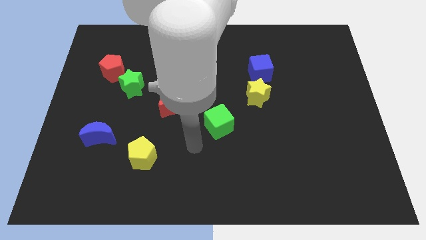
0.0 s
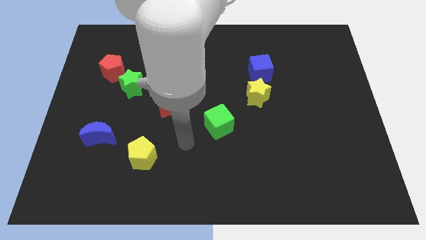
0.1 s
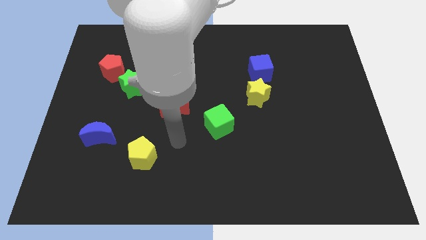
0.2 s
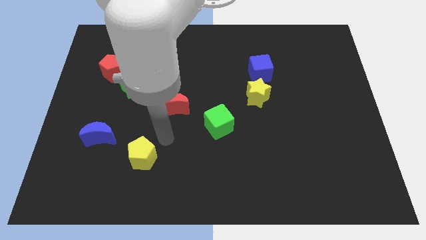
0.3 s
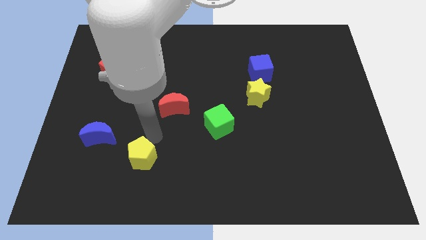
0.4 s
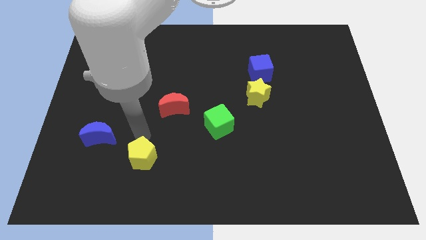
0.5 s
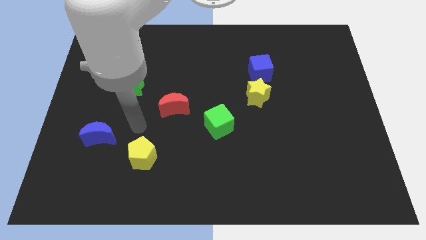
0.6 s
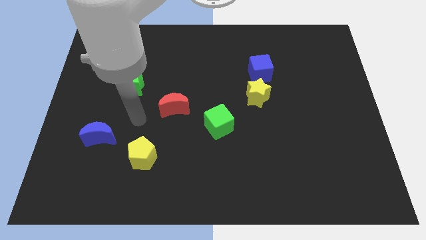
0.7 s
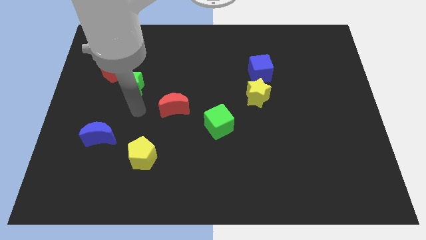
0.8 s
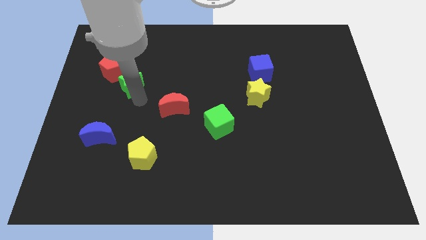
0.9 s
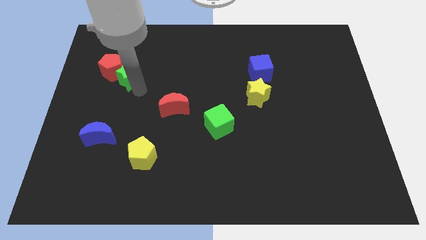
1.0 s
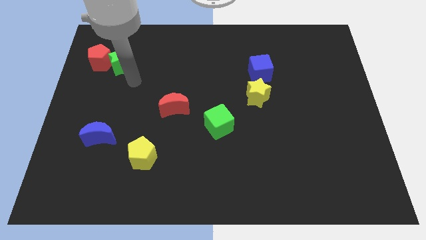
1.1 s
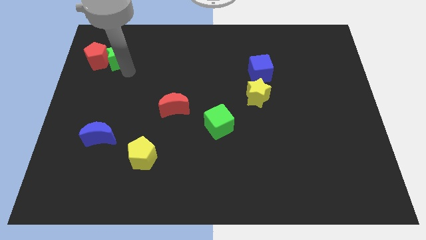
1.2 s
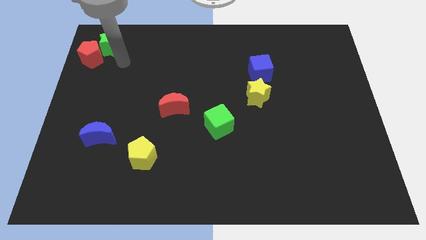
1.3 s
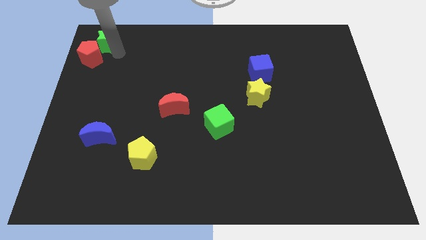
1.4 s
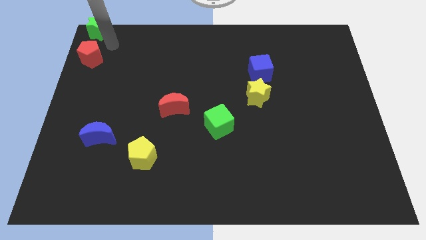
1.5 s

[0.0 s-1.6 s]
pull the red pentagon apart from the green star

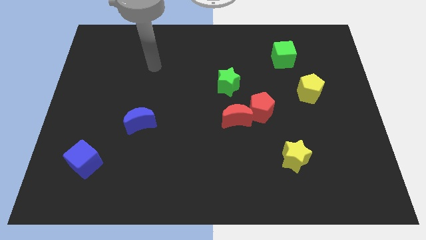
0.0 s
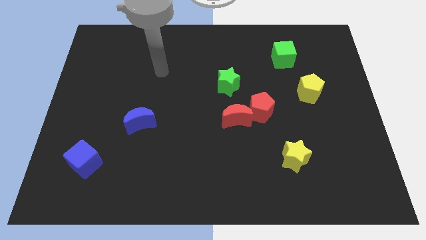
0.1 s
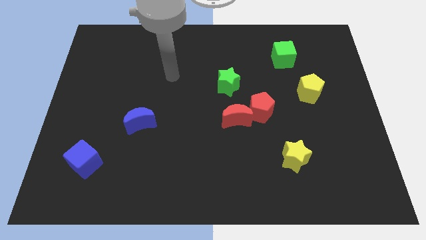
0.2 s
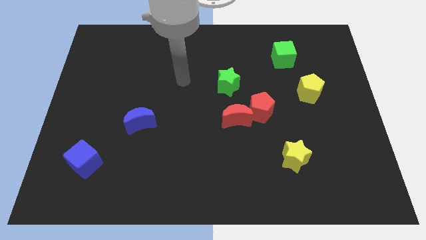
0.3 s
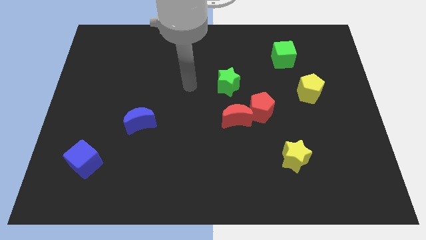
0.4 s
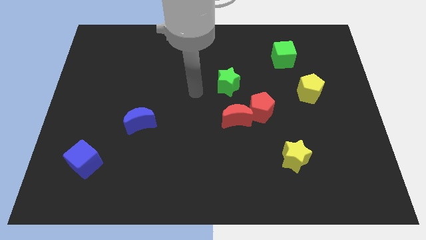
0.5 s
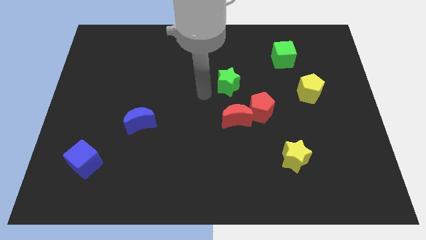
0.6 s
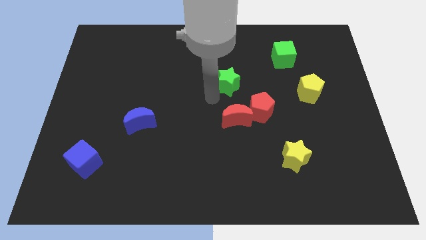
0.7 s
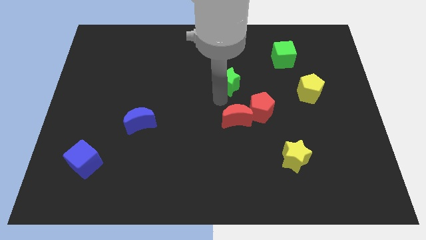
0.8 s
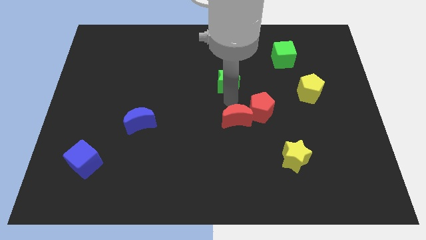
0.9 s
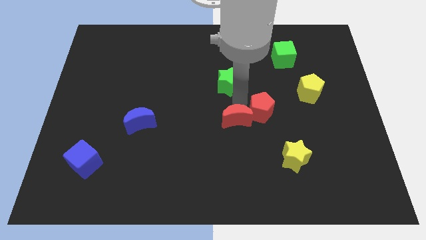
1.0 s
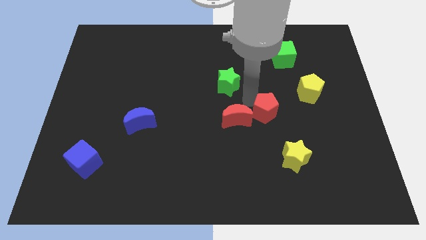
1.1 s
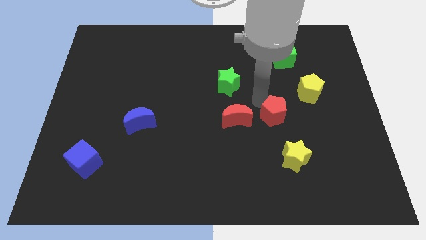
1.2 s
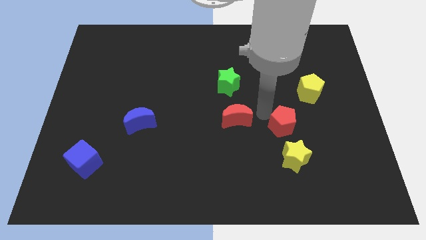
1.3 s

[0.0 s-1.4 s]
separate the red moon from the red pentagon

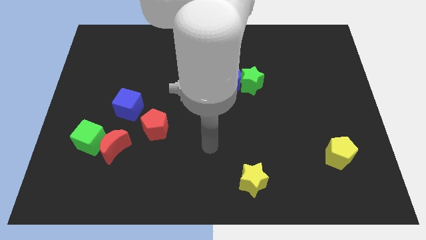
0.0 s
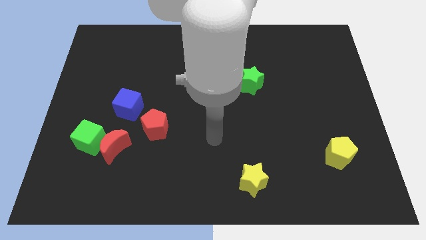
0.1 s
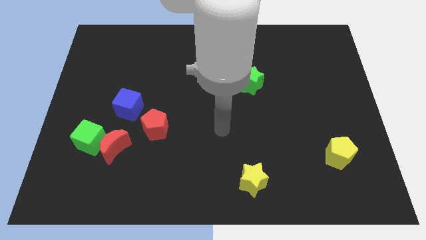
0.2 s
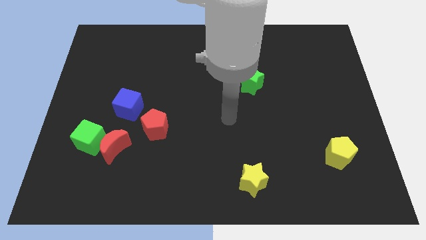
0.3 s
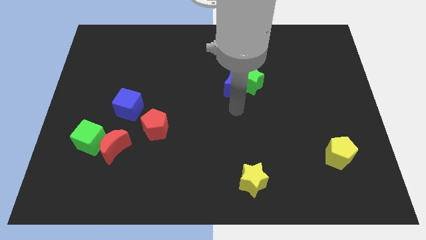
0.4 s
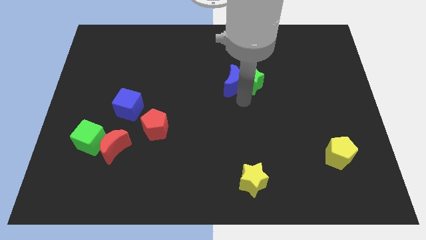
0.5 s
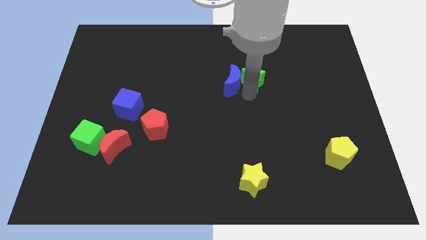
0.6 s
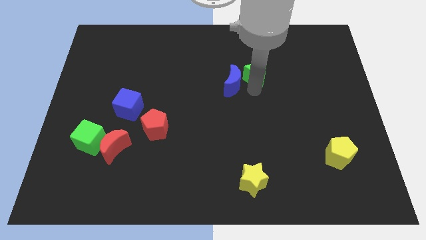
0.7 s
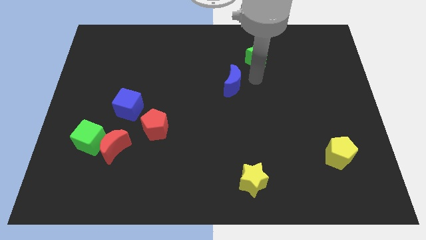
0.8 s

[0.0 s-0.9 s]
separate the blue moon from the green star

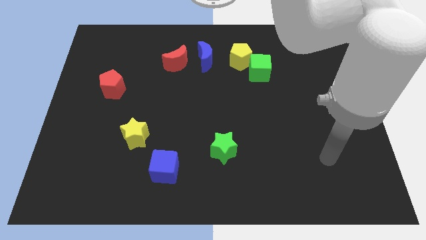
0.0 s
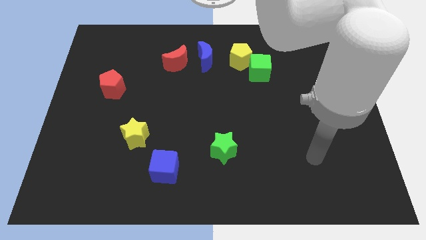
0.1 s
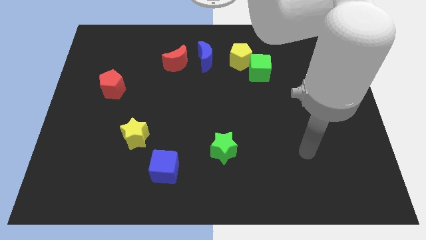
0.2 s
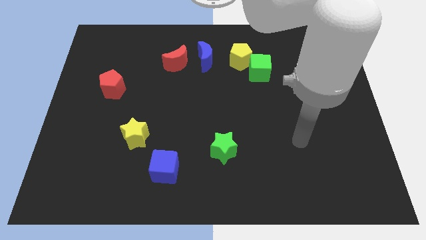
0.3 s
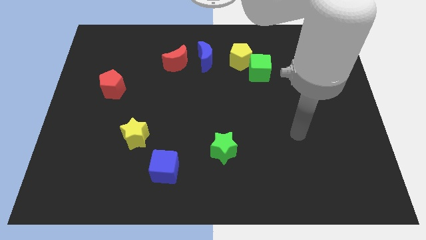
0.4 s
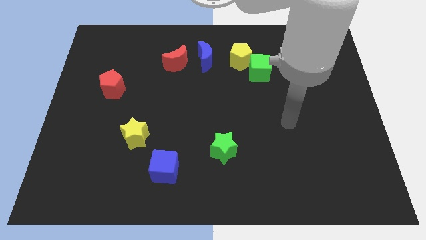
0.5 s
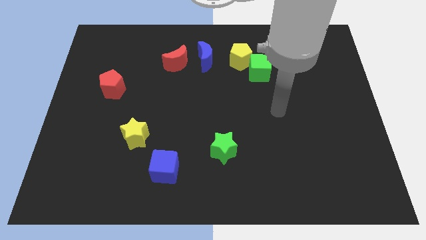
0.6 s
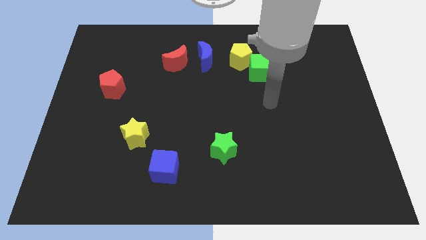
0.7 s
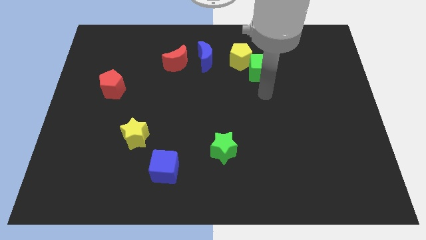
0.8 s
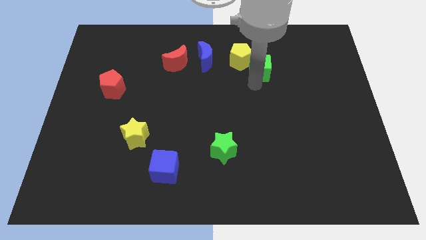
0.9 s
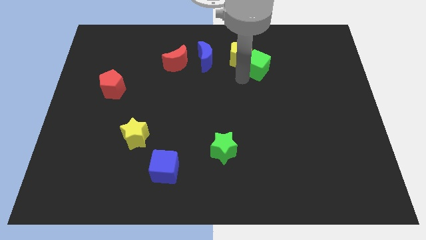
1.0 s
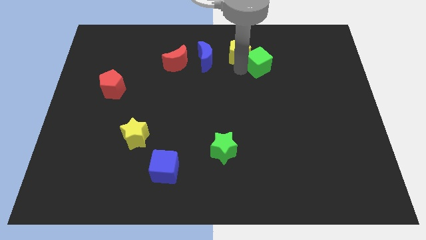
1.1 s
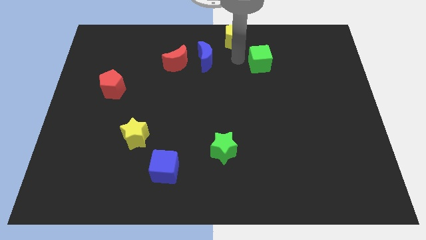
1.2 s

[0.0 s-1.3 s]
separate the green cube from the yellow pentagon

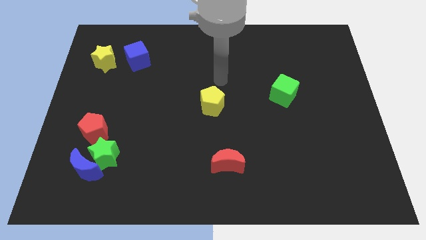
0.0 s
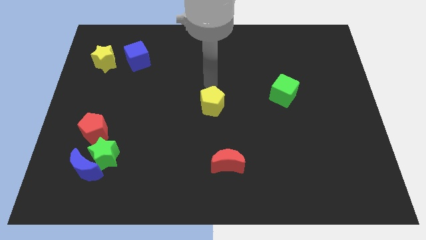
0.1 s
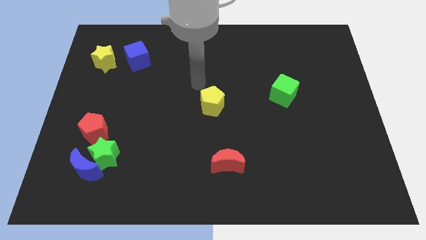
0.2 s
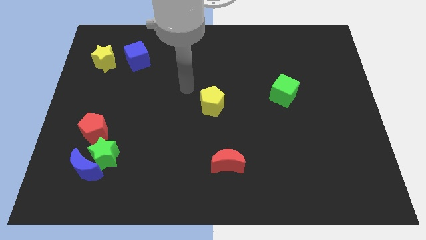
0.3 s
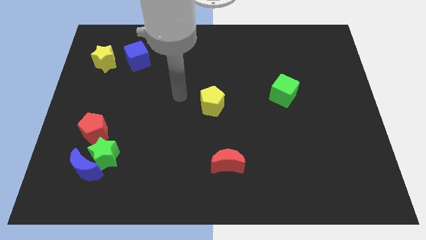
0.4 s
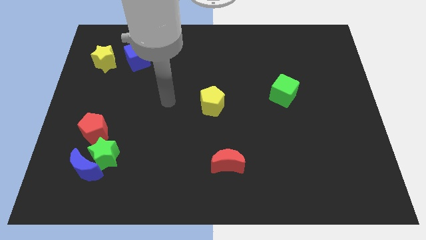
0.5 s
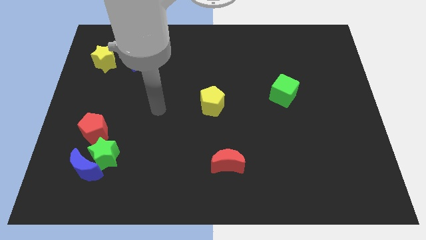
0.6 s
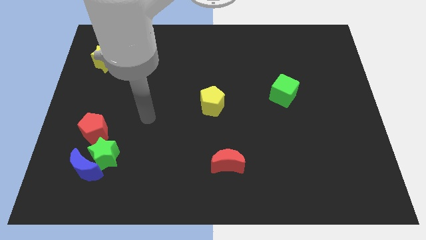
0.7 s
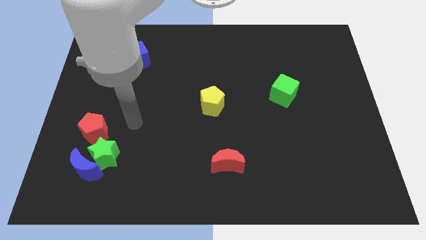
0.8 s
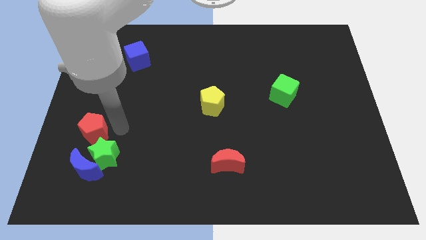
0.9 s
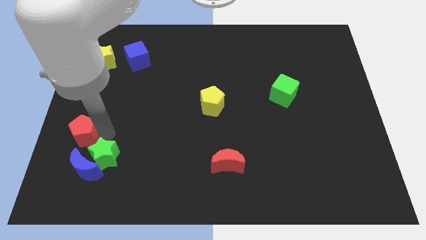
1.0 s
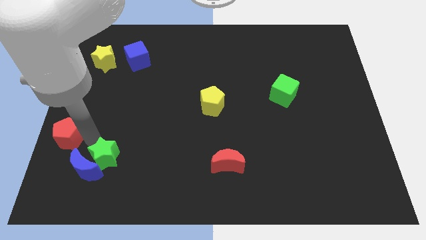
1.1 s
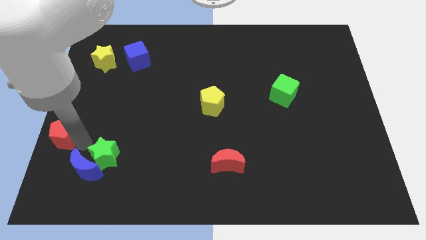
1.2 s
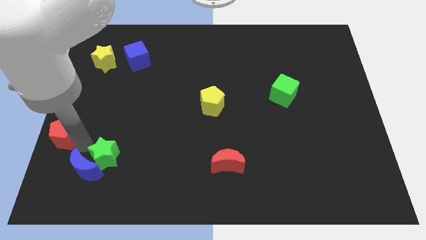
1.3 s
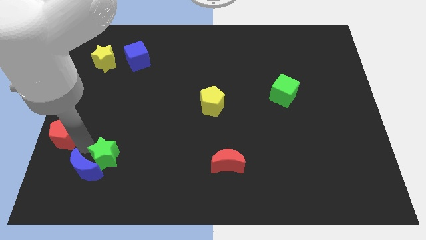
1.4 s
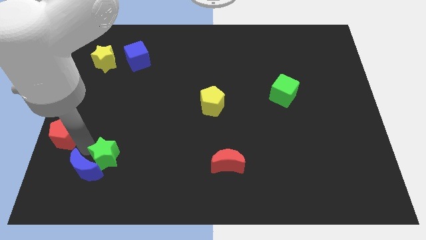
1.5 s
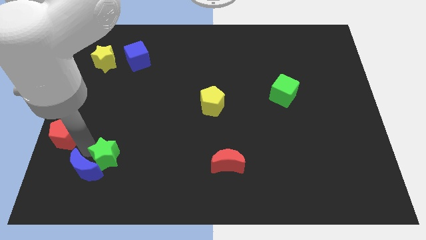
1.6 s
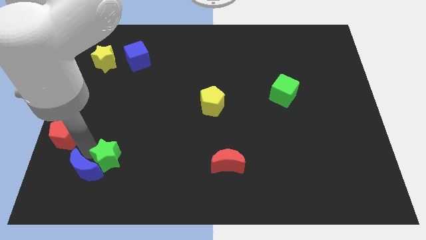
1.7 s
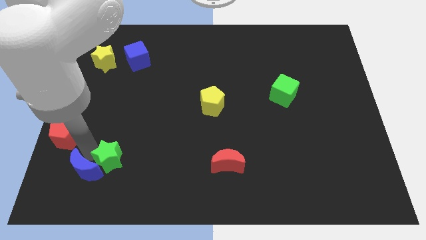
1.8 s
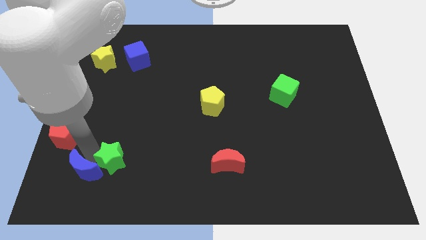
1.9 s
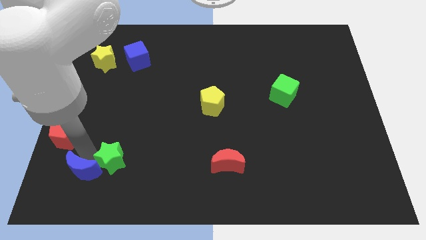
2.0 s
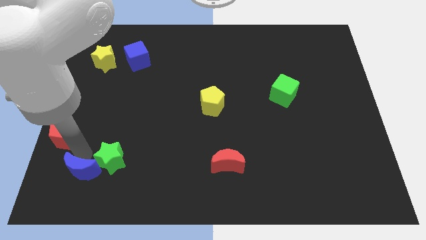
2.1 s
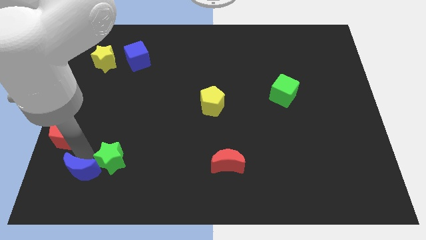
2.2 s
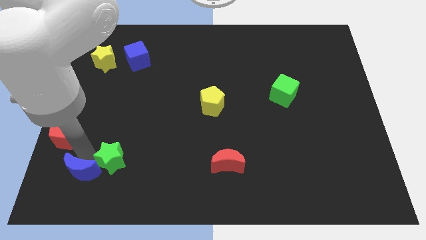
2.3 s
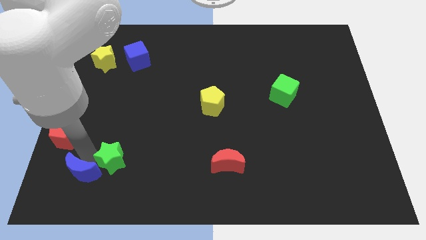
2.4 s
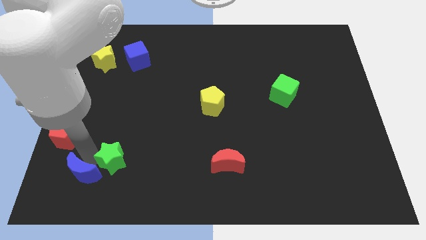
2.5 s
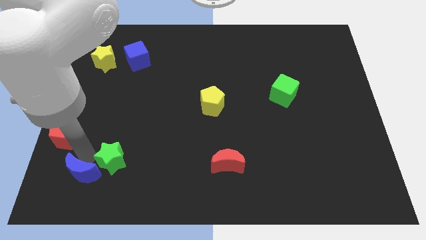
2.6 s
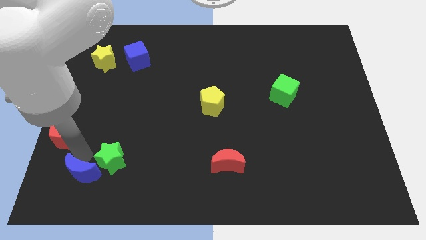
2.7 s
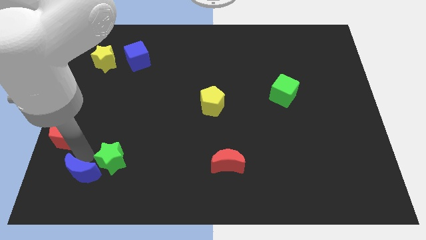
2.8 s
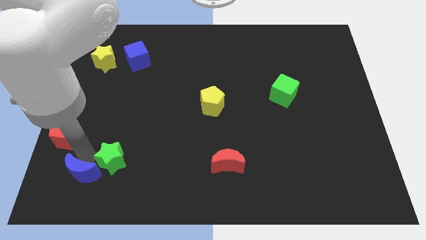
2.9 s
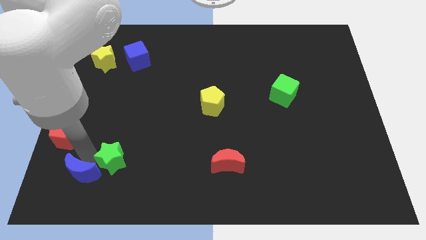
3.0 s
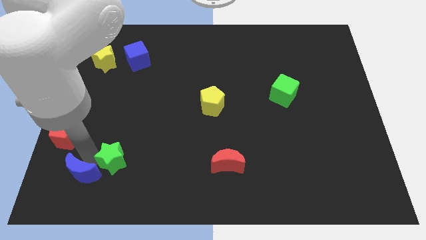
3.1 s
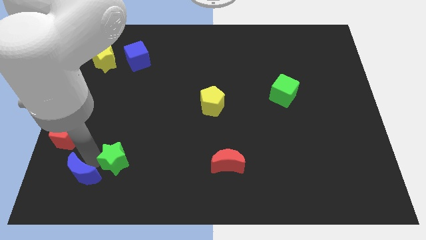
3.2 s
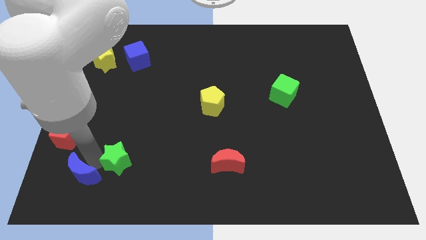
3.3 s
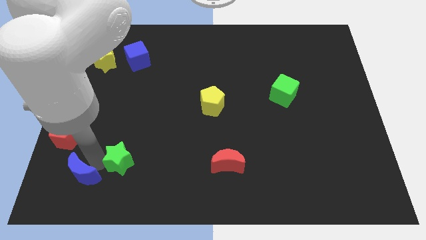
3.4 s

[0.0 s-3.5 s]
separate the green star from the blue moon and red pentagon

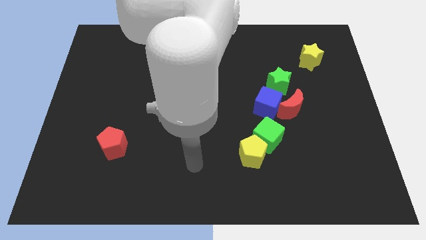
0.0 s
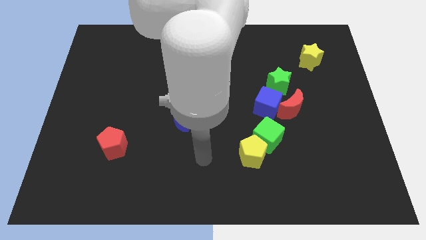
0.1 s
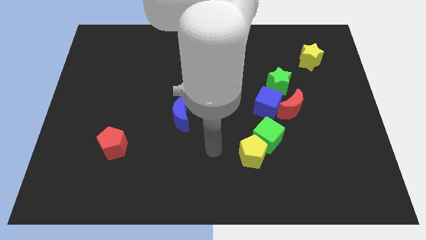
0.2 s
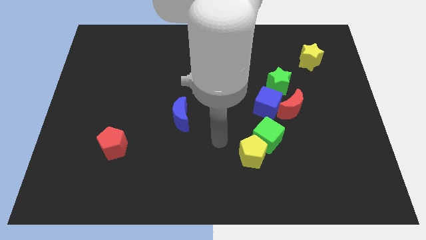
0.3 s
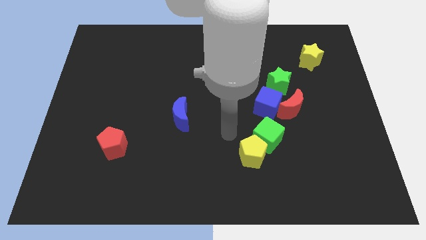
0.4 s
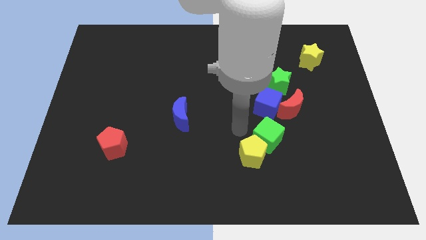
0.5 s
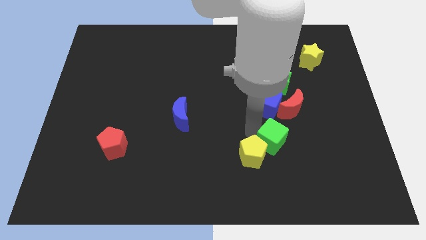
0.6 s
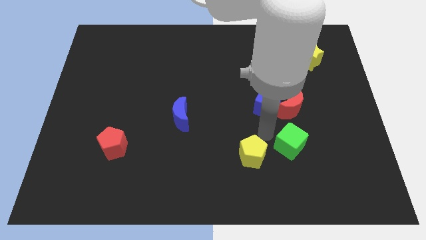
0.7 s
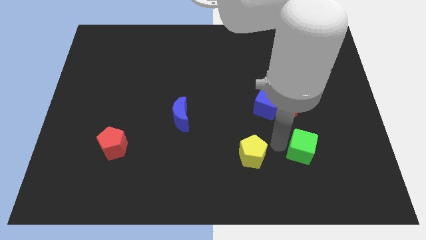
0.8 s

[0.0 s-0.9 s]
pull the yellow pentagon apart from the green cube
